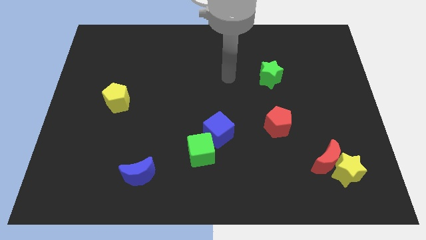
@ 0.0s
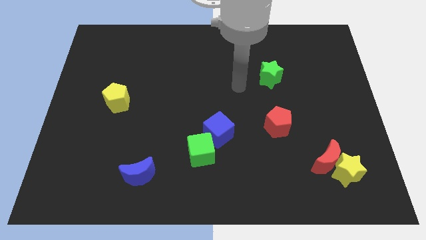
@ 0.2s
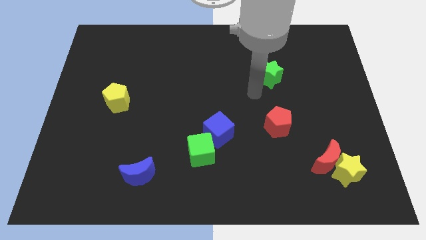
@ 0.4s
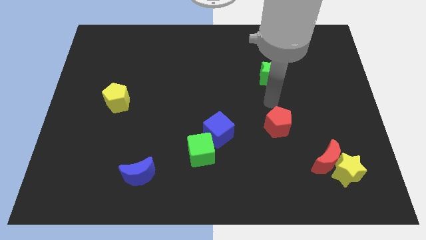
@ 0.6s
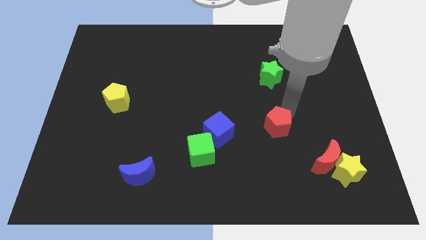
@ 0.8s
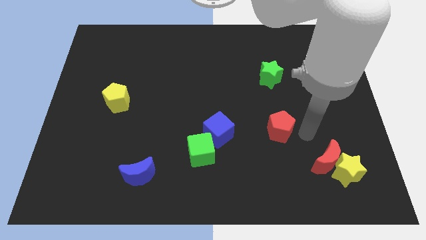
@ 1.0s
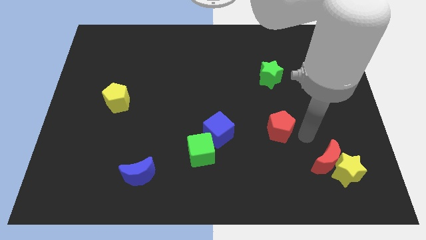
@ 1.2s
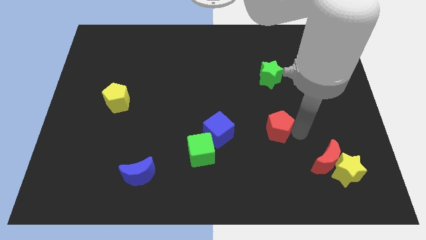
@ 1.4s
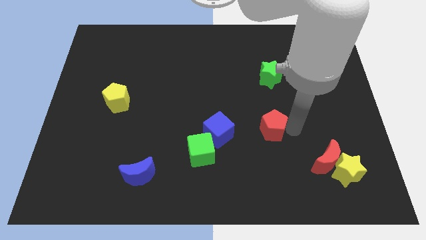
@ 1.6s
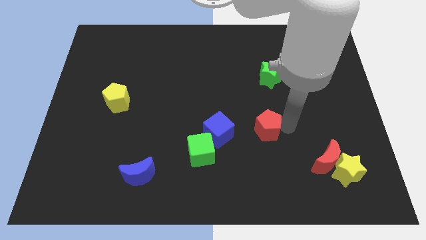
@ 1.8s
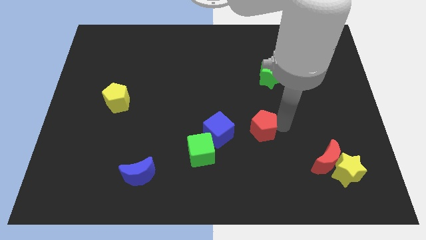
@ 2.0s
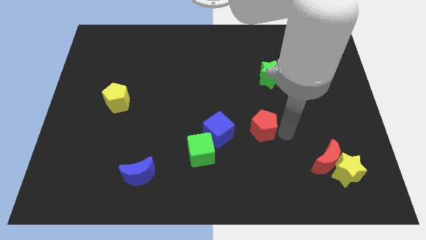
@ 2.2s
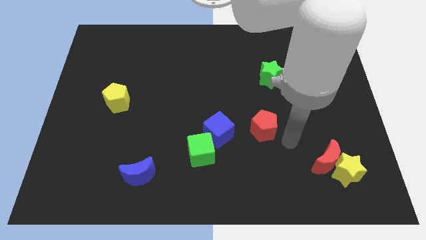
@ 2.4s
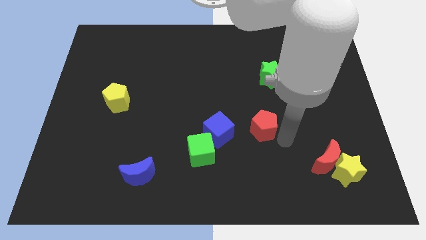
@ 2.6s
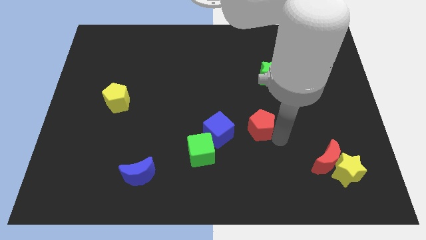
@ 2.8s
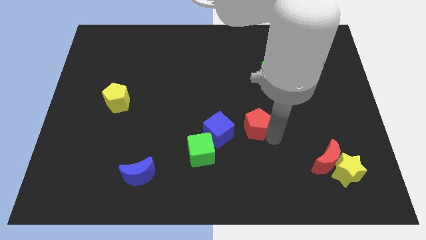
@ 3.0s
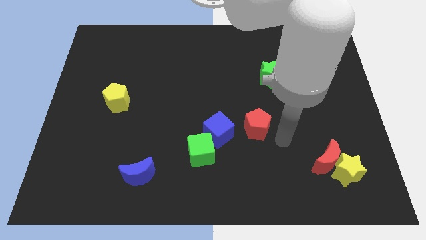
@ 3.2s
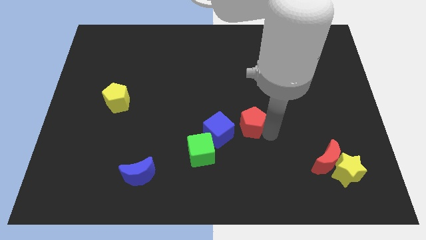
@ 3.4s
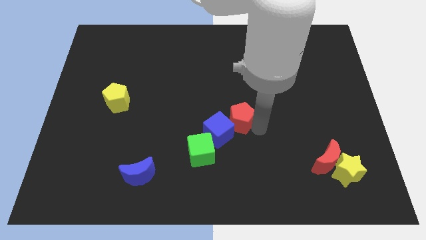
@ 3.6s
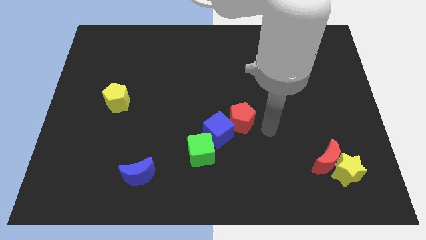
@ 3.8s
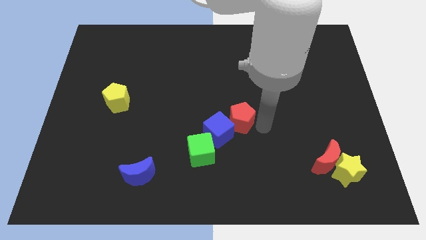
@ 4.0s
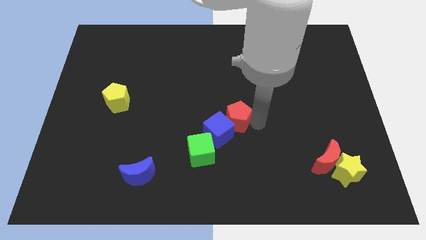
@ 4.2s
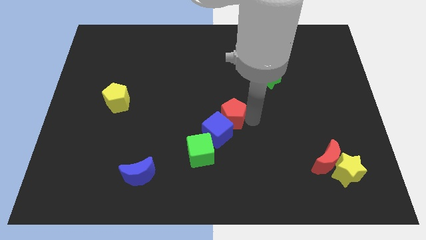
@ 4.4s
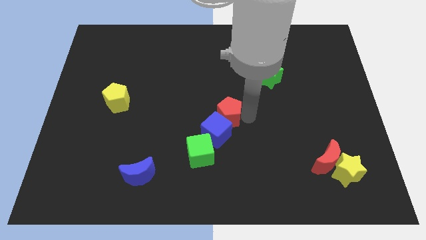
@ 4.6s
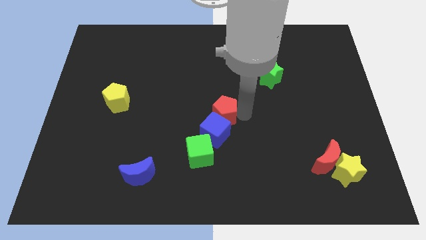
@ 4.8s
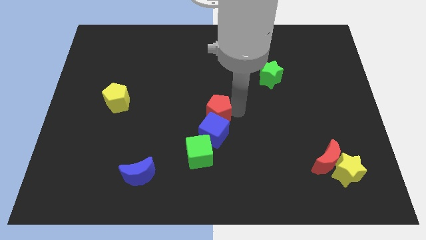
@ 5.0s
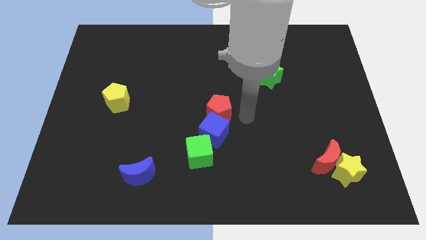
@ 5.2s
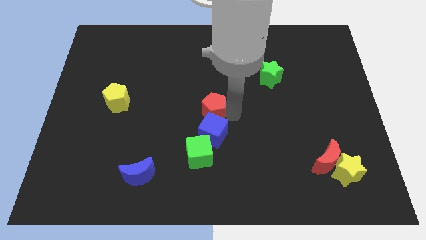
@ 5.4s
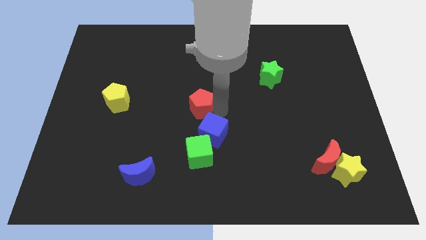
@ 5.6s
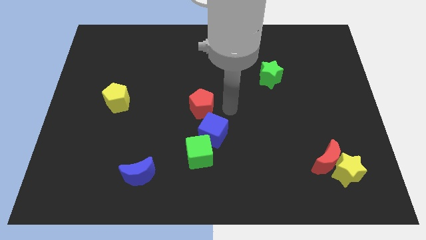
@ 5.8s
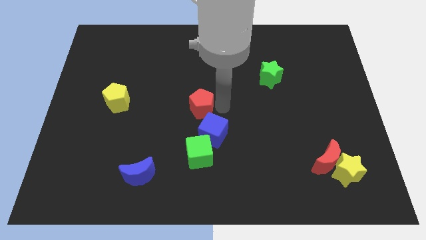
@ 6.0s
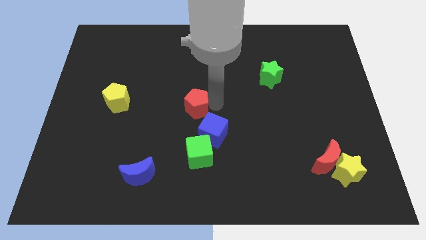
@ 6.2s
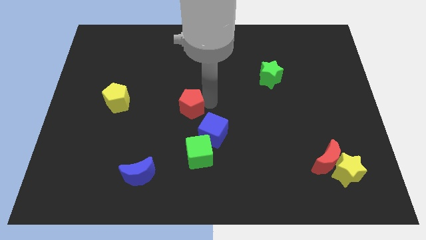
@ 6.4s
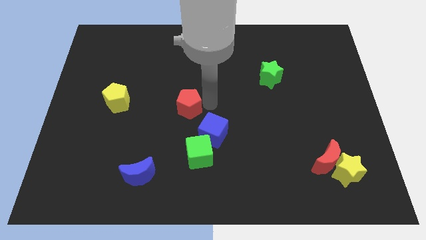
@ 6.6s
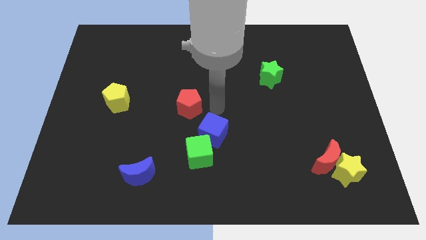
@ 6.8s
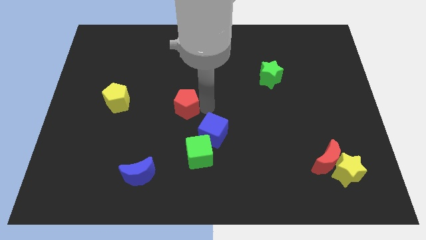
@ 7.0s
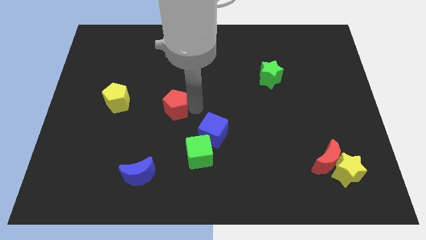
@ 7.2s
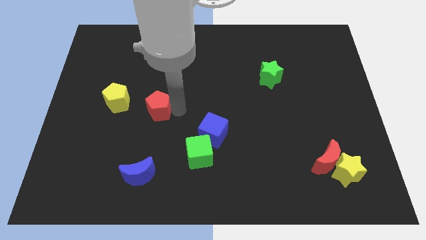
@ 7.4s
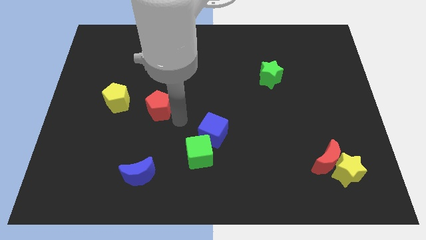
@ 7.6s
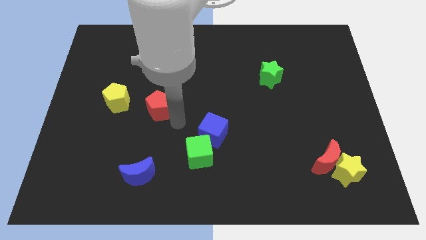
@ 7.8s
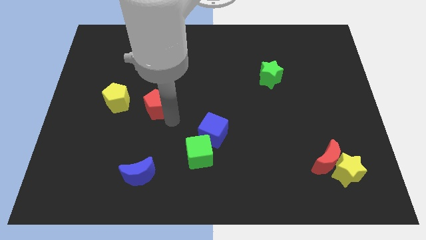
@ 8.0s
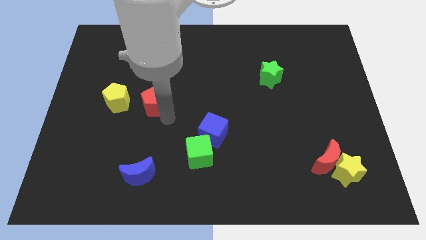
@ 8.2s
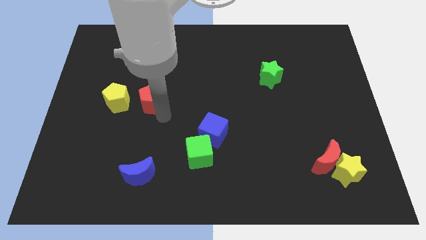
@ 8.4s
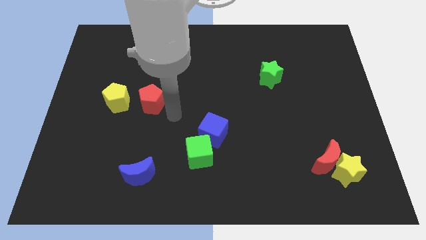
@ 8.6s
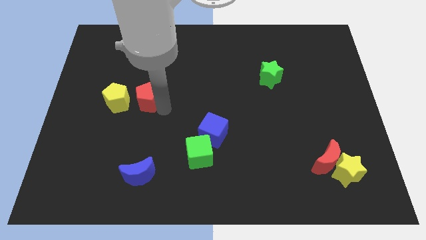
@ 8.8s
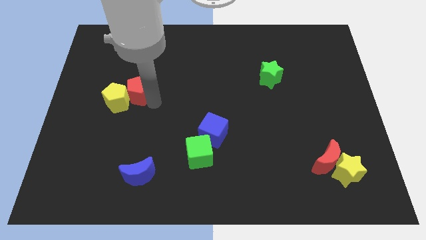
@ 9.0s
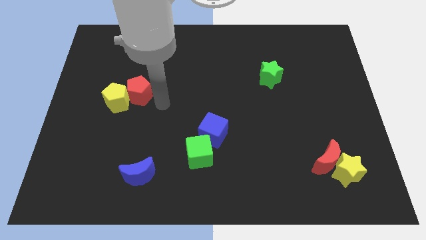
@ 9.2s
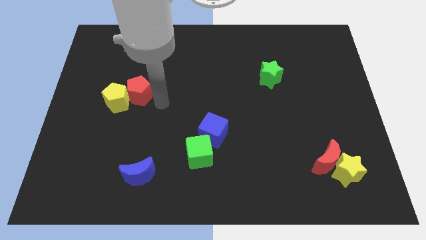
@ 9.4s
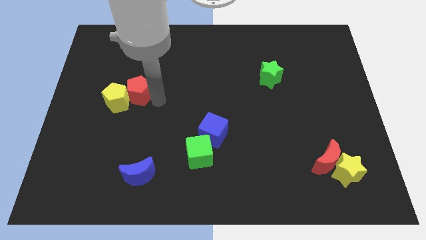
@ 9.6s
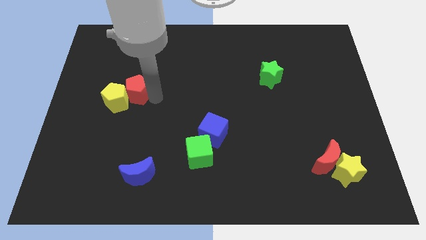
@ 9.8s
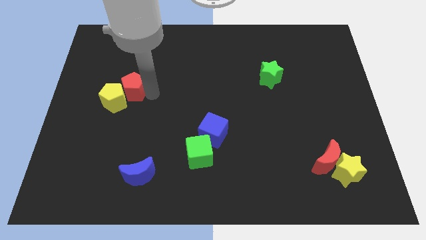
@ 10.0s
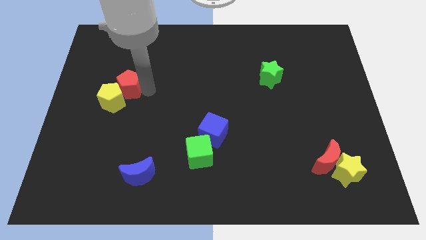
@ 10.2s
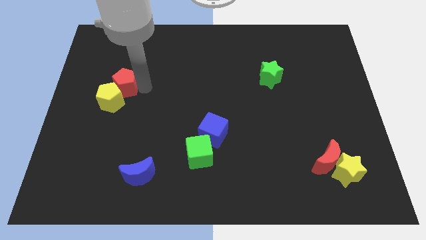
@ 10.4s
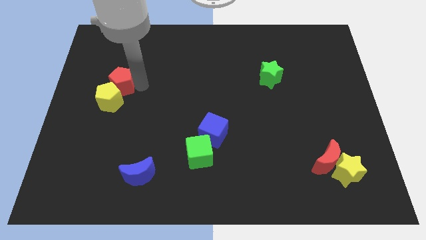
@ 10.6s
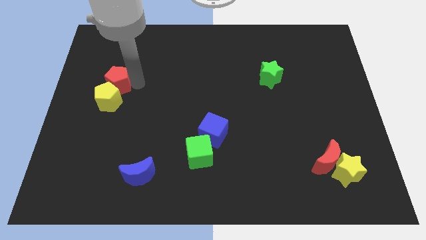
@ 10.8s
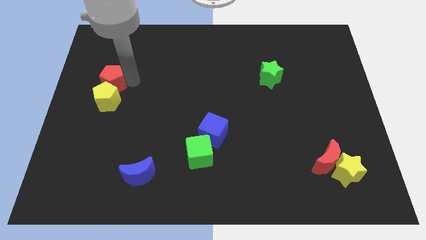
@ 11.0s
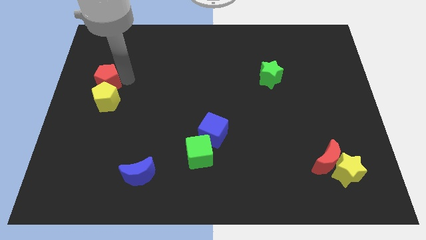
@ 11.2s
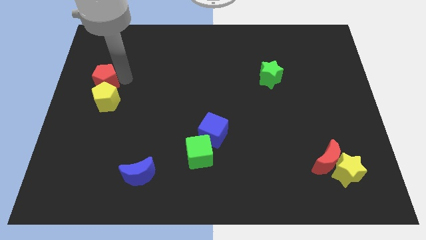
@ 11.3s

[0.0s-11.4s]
move the red pentagon to the center left

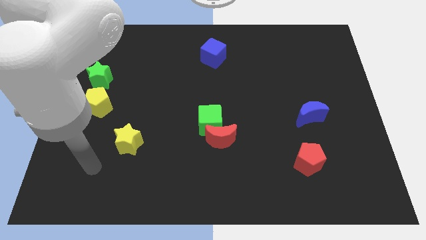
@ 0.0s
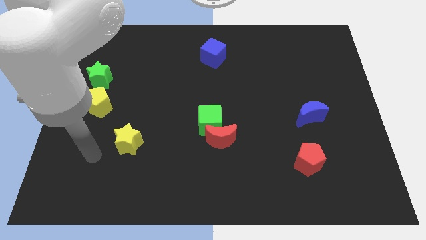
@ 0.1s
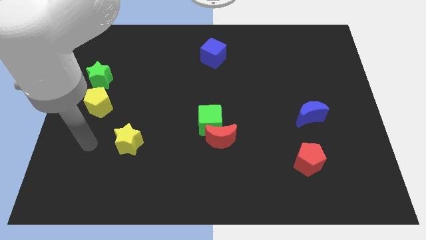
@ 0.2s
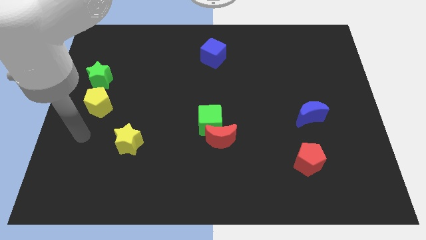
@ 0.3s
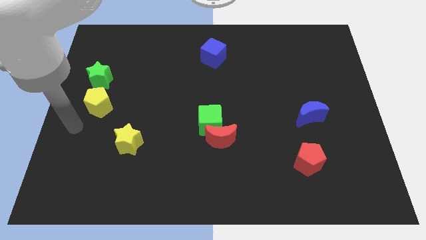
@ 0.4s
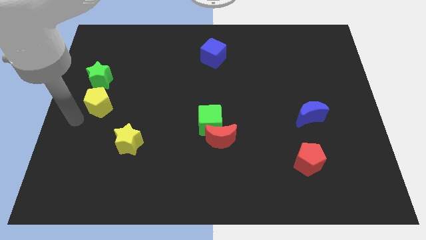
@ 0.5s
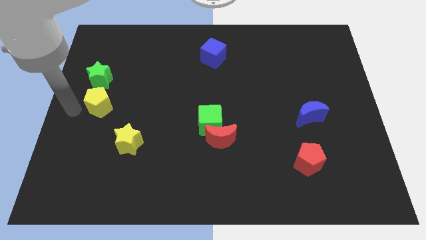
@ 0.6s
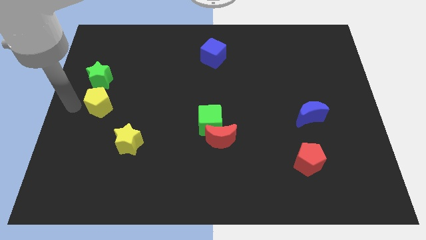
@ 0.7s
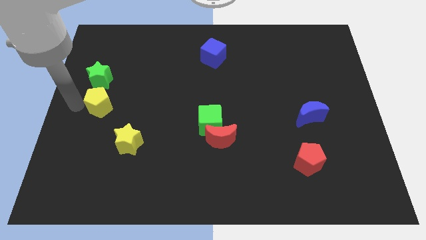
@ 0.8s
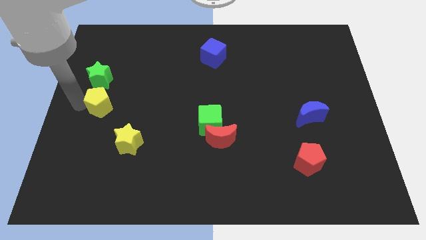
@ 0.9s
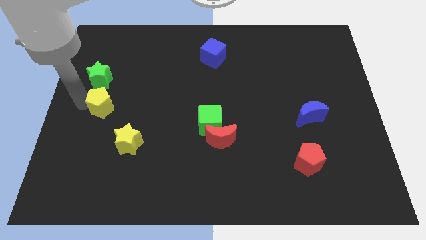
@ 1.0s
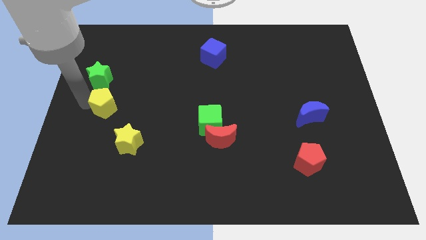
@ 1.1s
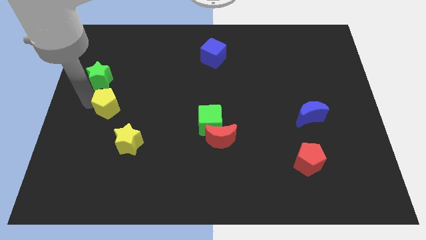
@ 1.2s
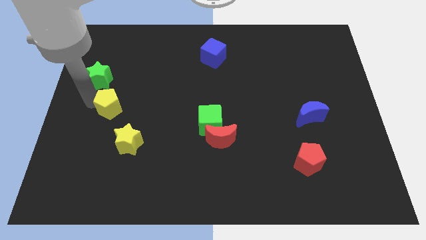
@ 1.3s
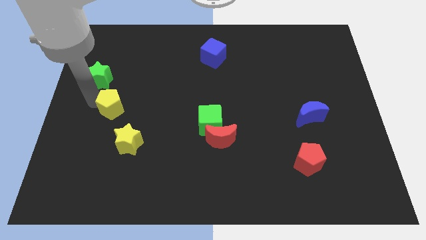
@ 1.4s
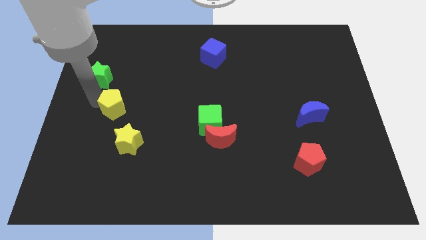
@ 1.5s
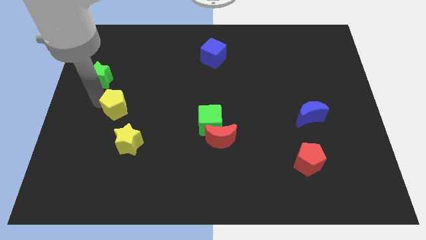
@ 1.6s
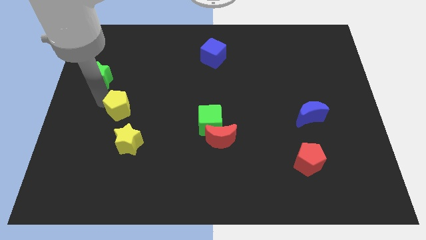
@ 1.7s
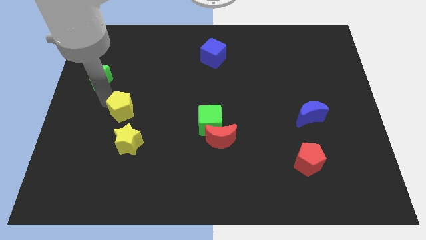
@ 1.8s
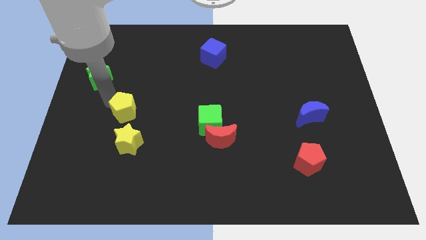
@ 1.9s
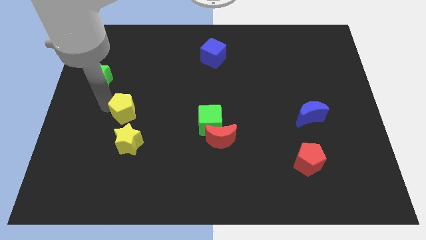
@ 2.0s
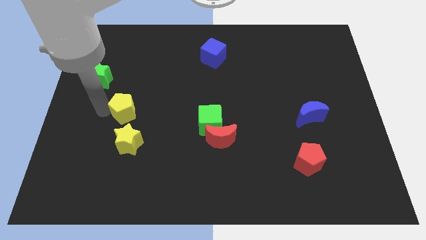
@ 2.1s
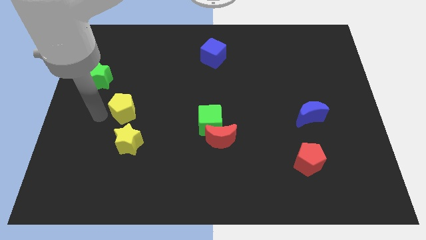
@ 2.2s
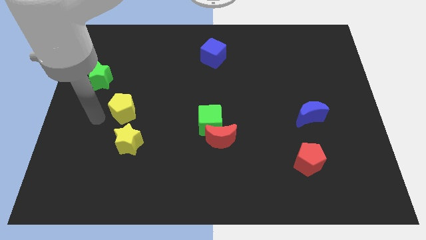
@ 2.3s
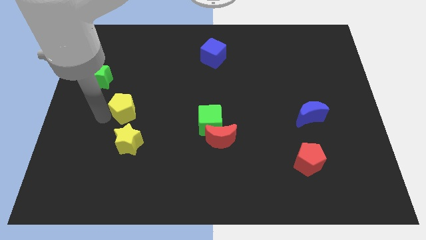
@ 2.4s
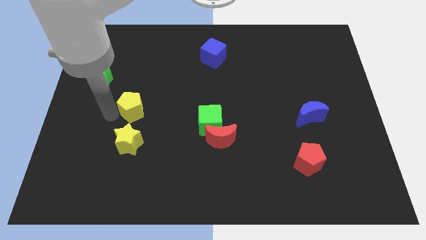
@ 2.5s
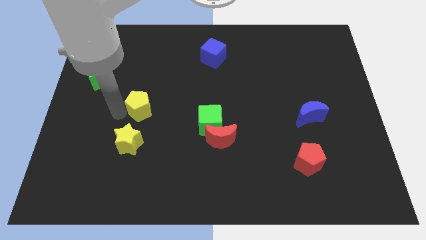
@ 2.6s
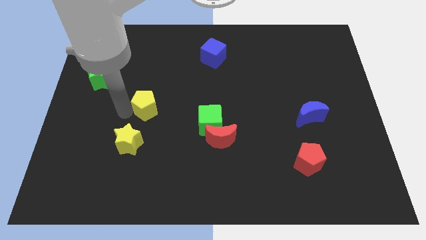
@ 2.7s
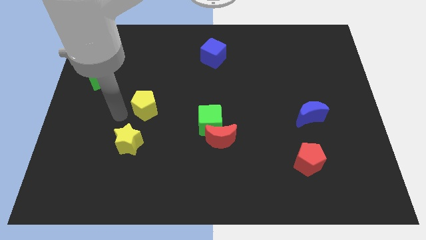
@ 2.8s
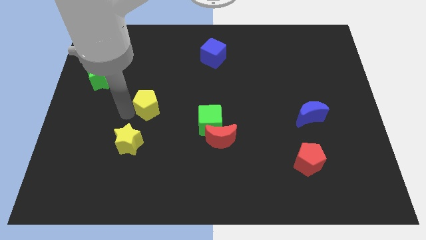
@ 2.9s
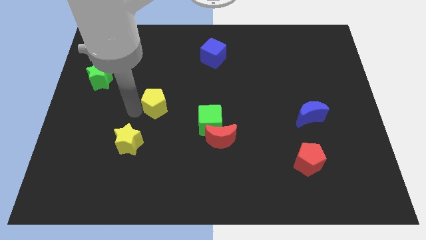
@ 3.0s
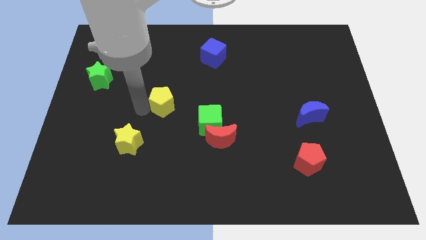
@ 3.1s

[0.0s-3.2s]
push the yellow pentagon to the middle
